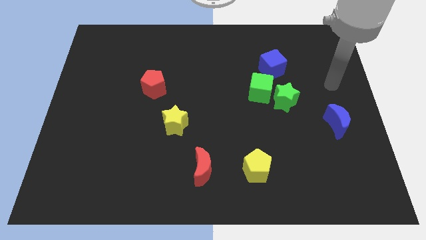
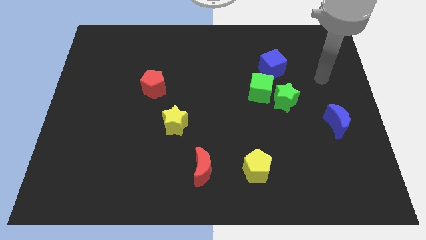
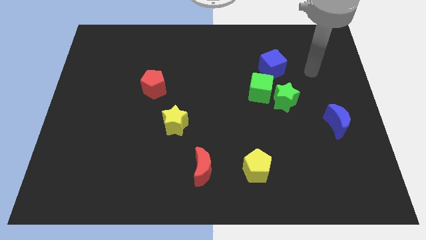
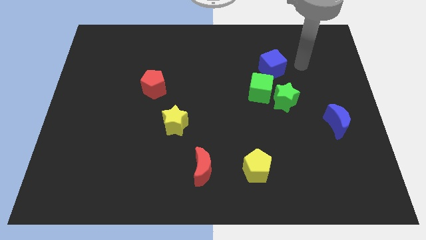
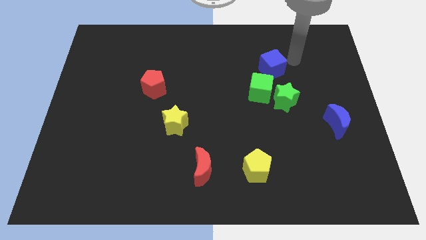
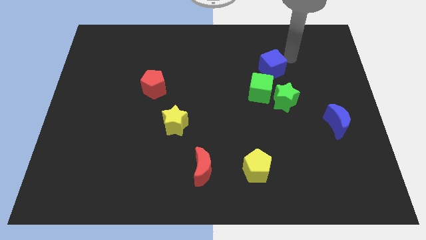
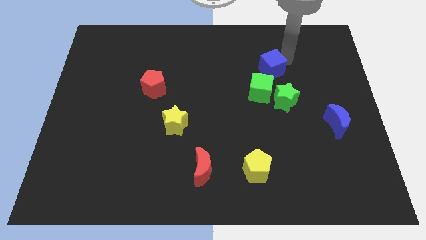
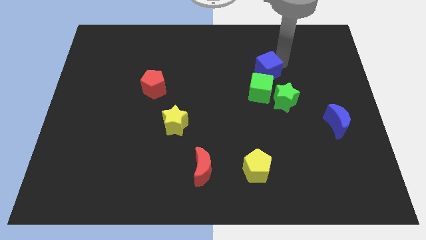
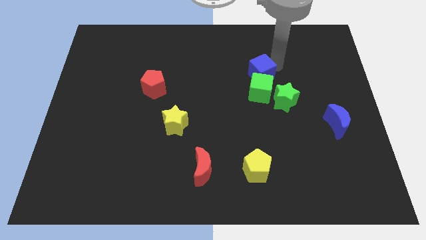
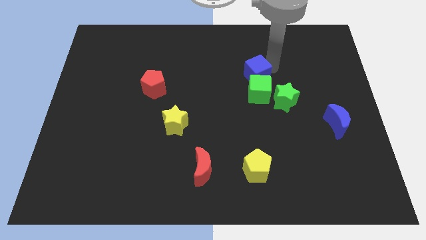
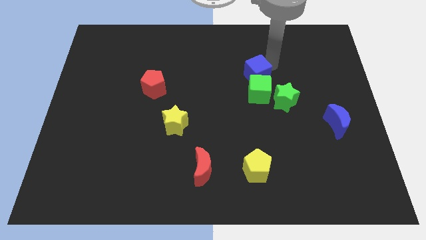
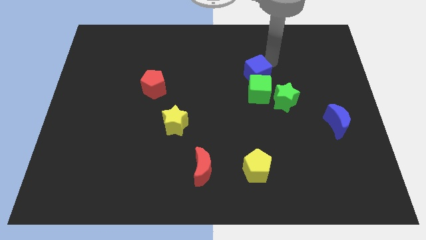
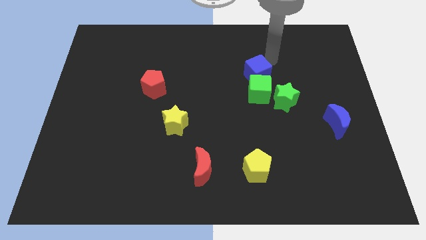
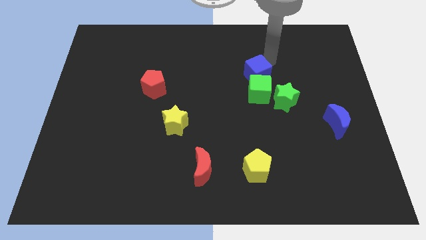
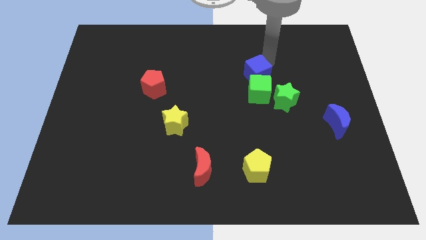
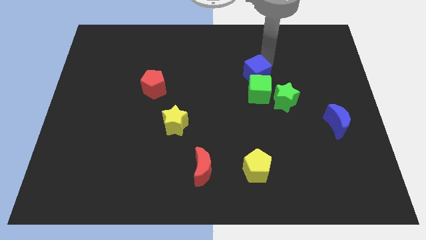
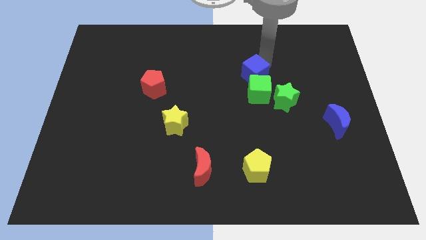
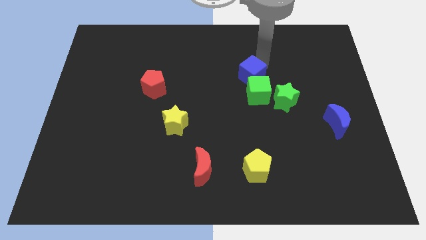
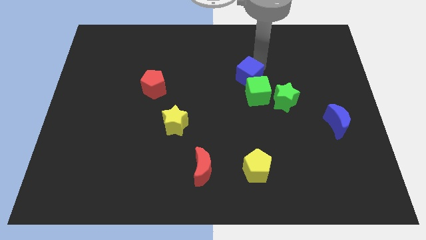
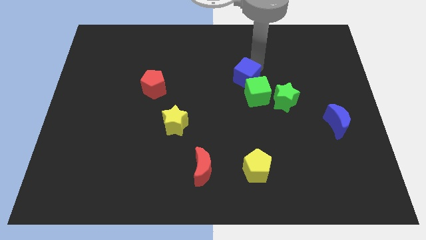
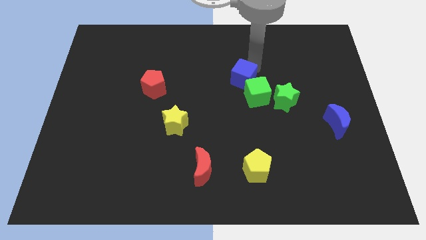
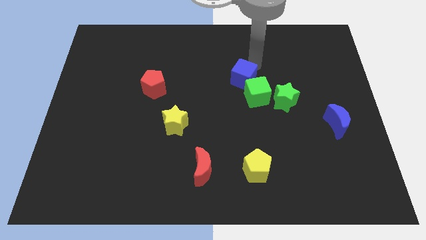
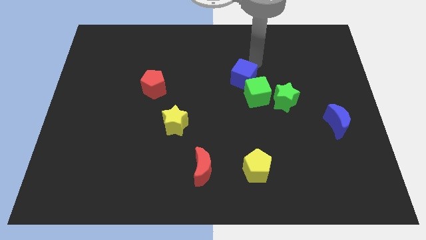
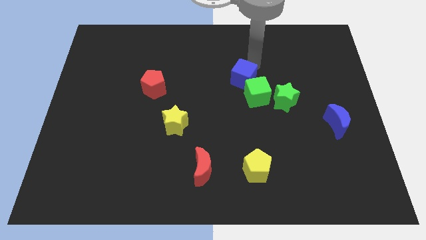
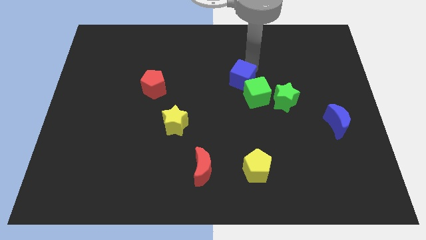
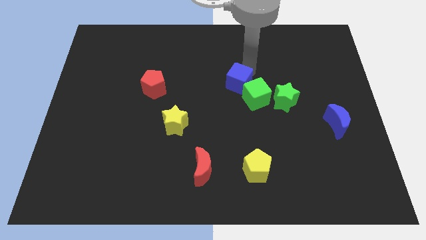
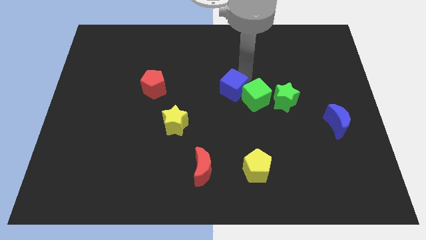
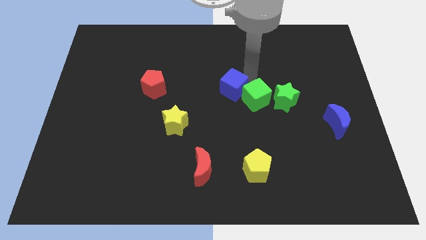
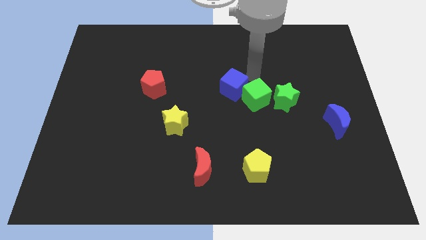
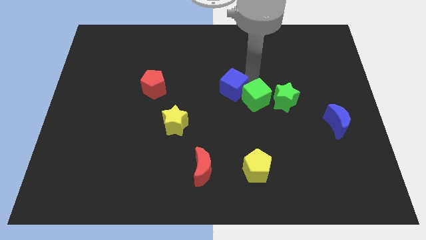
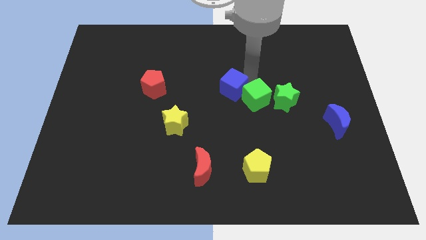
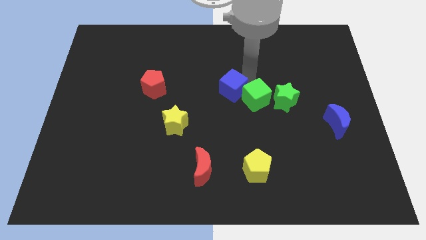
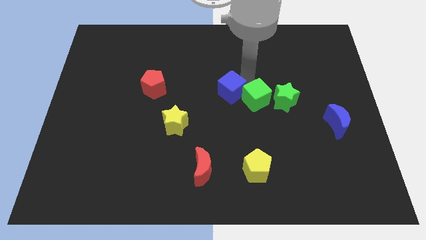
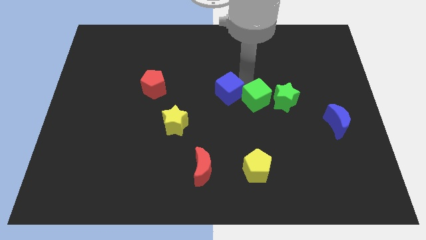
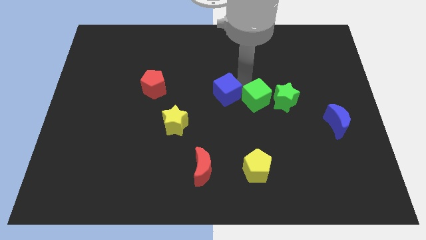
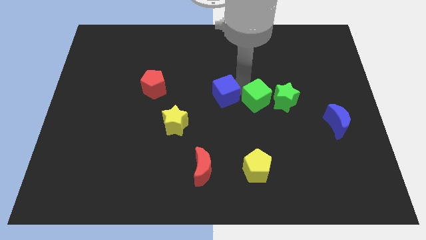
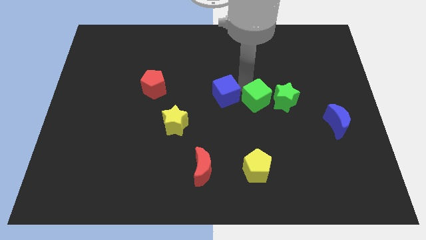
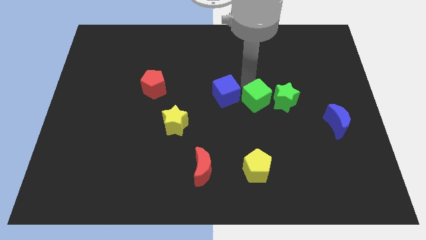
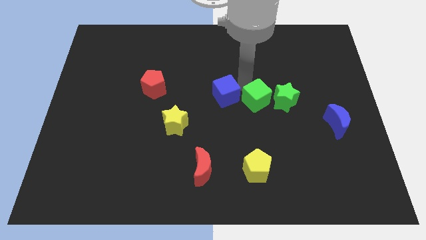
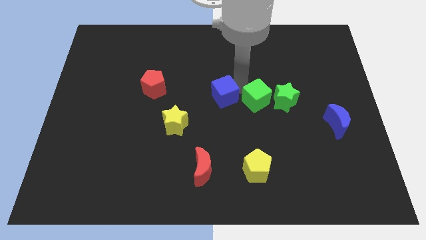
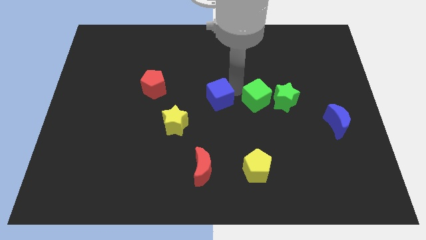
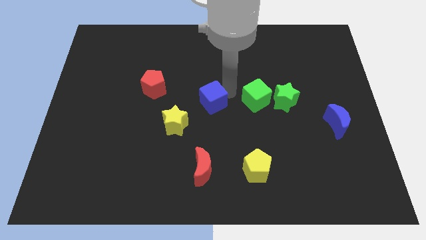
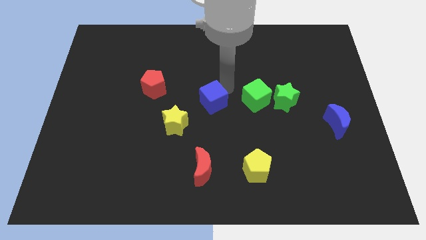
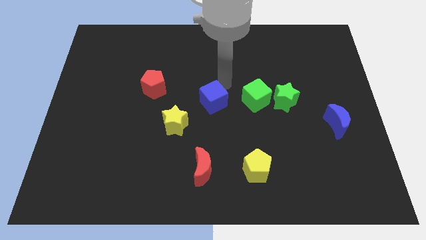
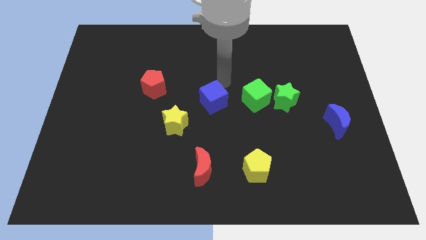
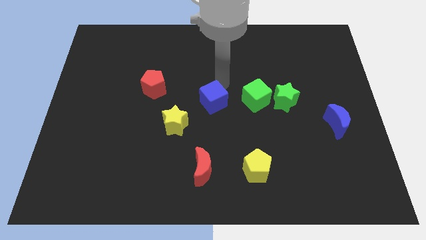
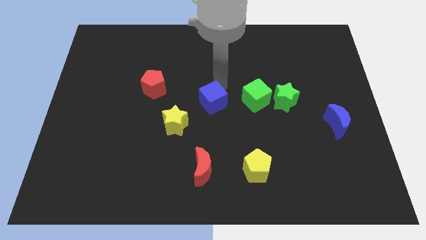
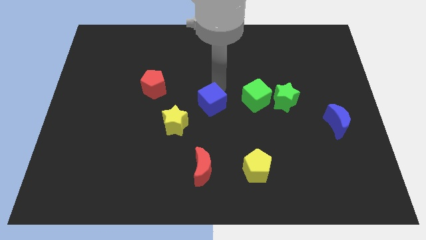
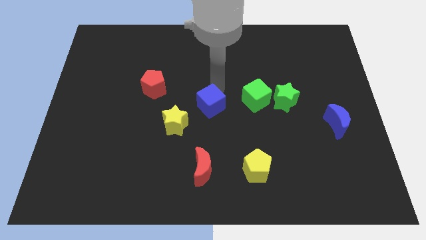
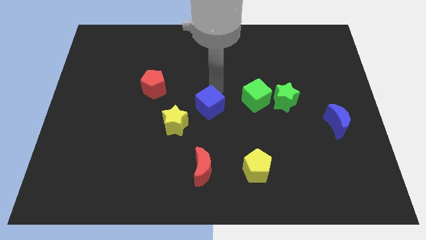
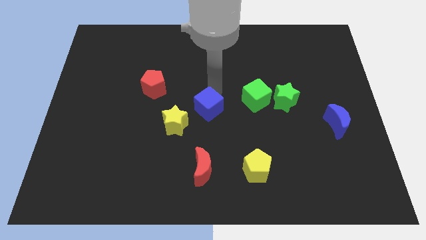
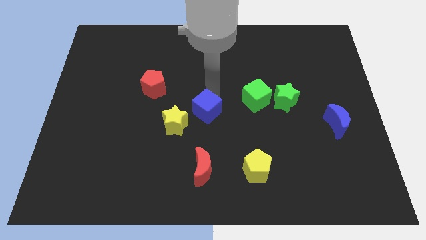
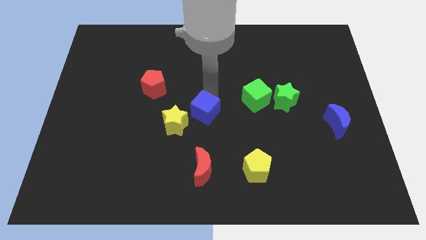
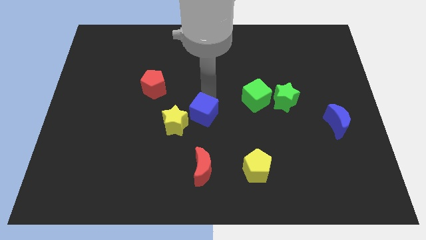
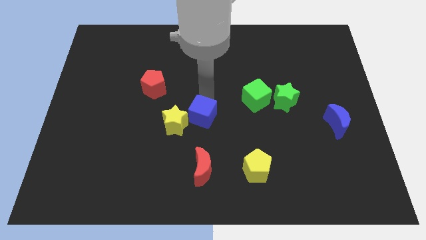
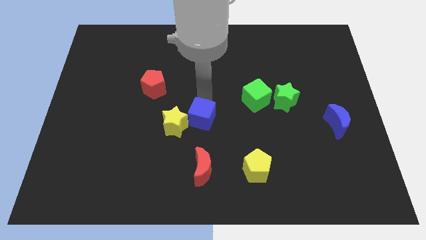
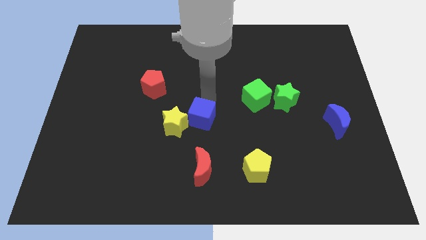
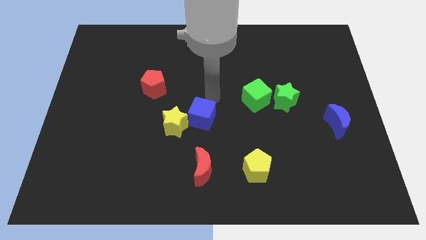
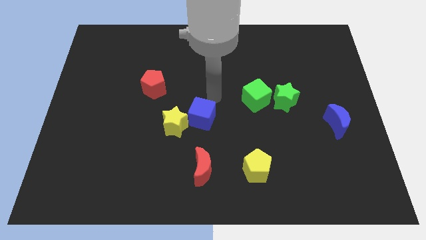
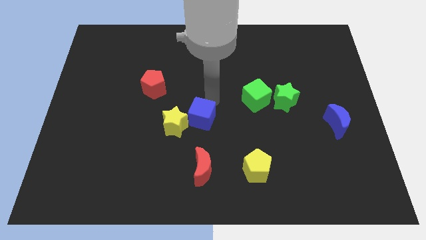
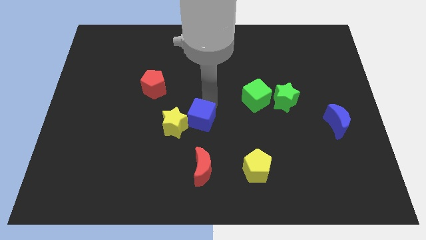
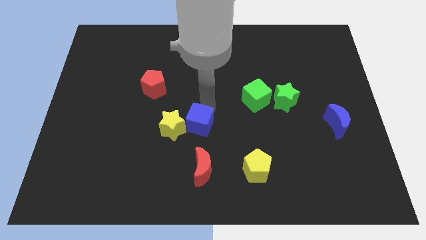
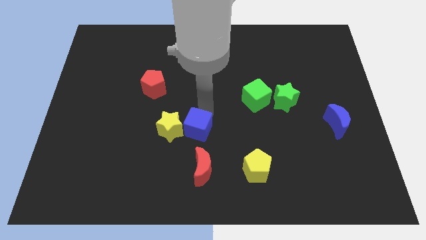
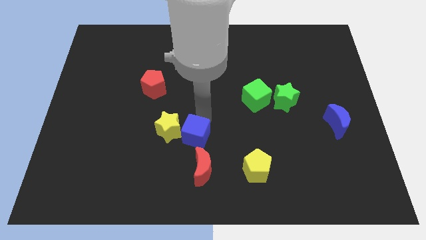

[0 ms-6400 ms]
push the blue cube to the top left of the red moon

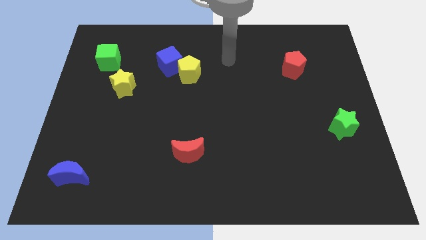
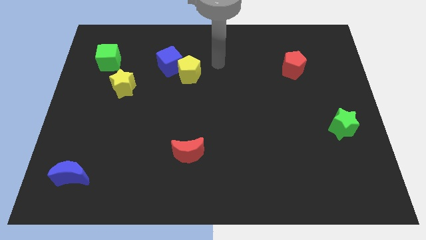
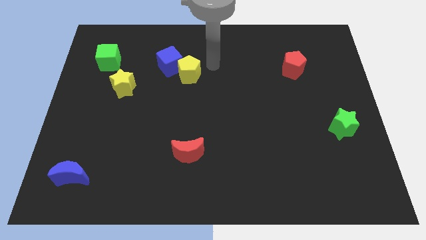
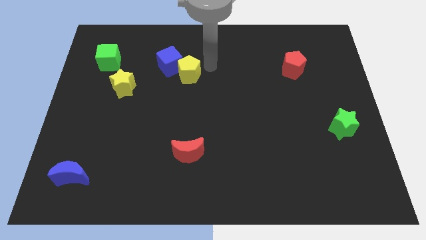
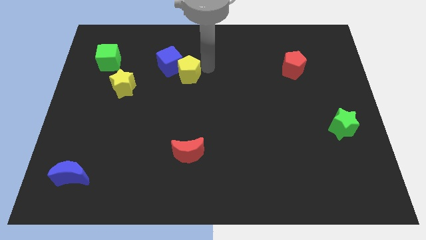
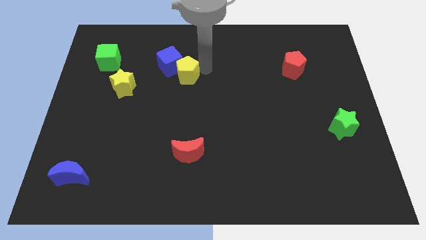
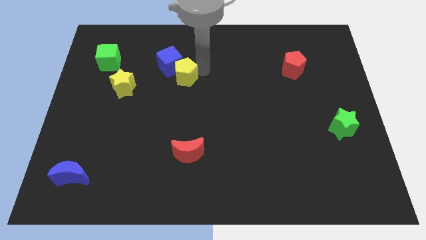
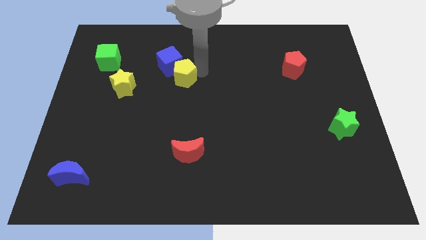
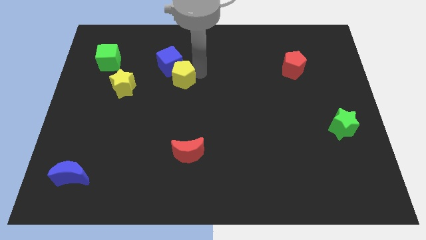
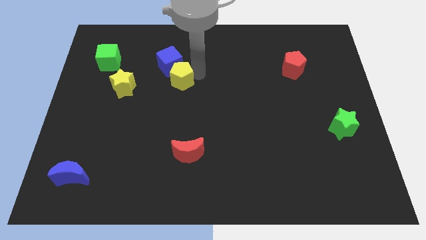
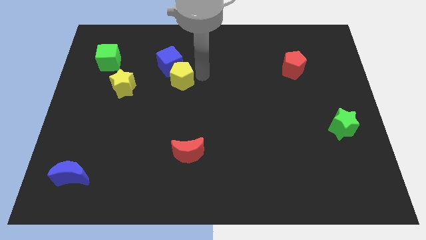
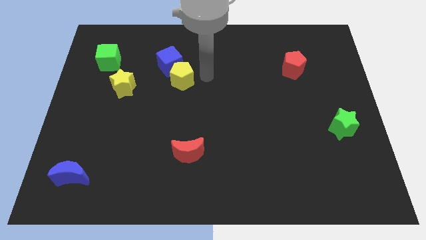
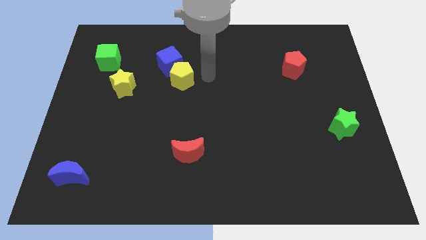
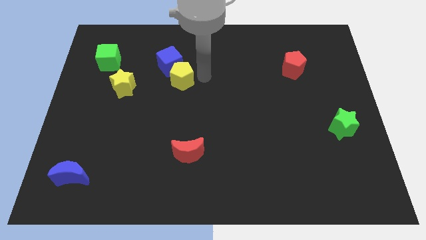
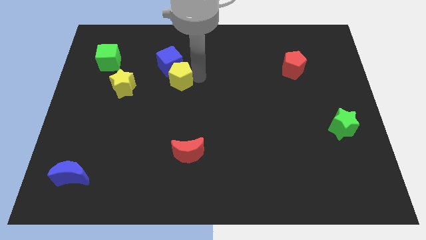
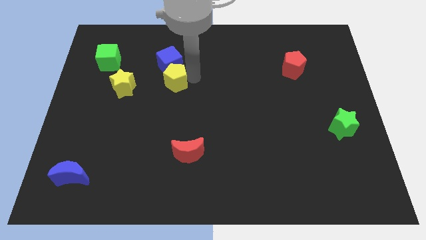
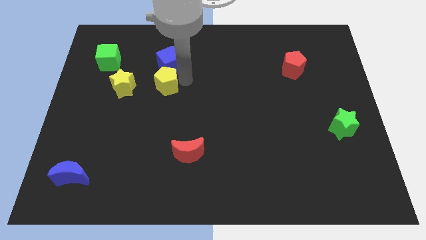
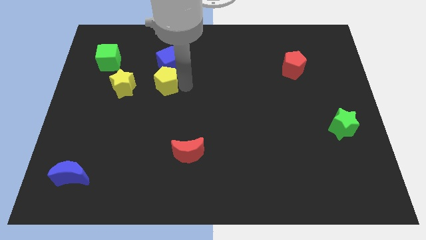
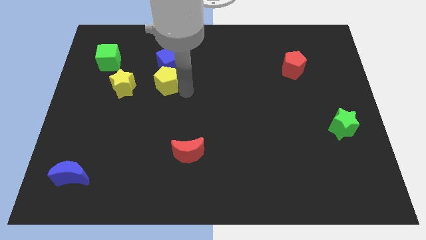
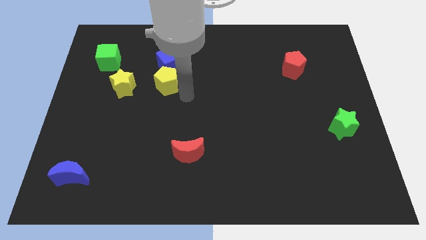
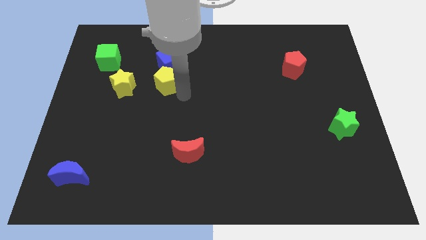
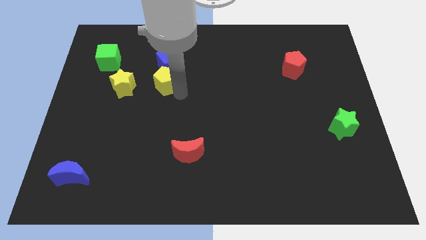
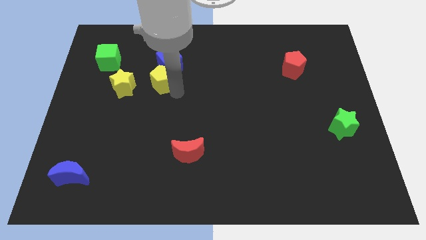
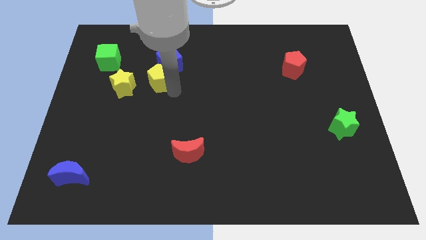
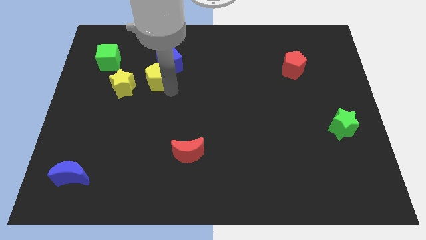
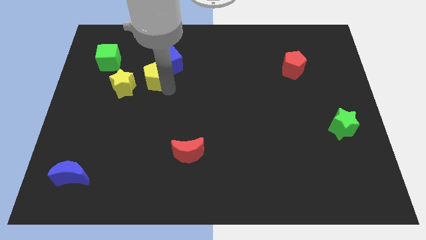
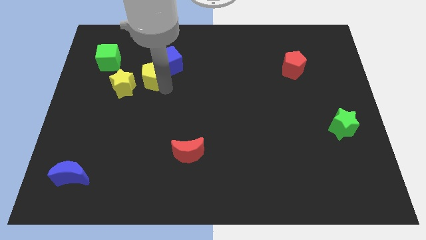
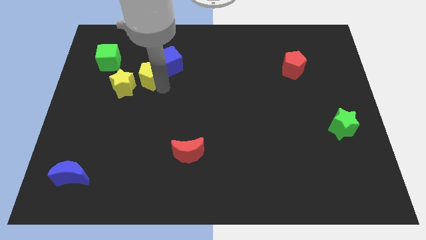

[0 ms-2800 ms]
move the yellow pentagon to the left of the blue cube
